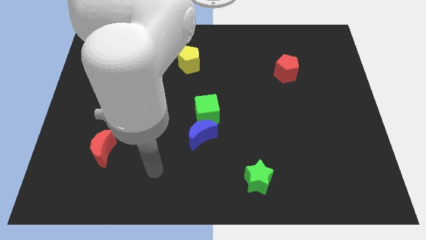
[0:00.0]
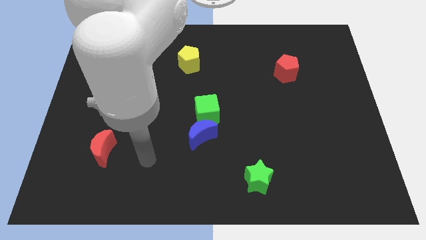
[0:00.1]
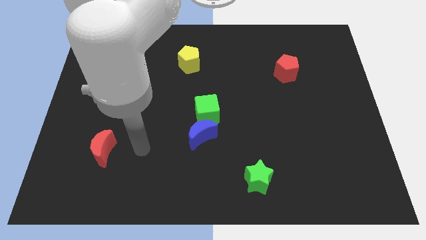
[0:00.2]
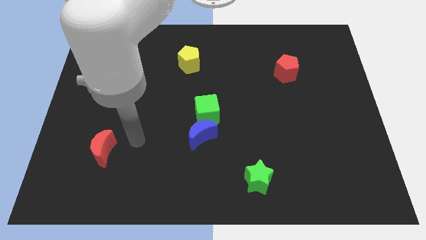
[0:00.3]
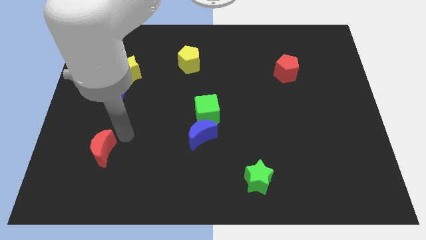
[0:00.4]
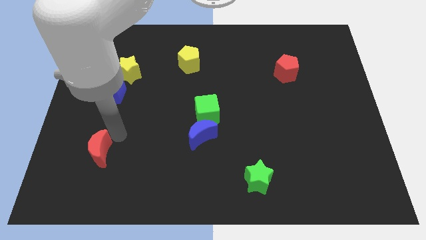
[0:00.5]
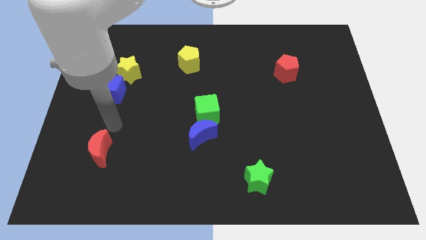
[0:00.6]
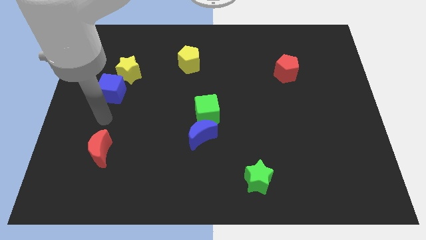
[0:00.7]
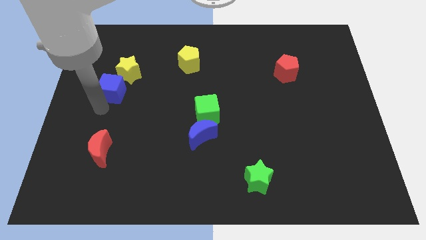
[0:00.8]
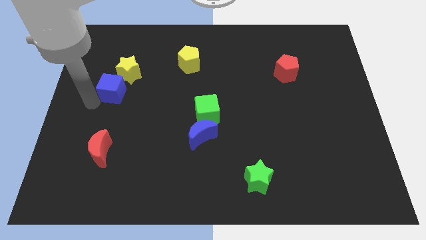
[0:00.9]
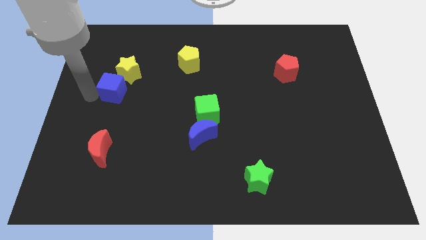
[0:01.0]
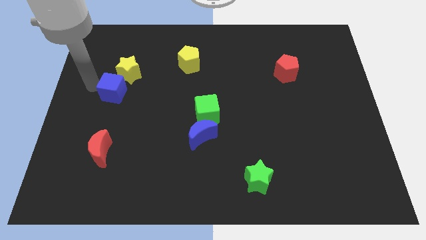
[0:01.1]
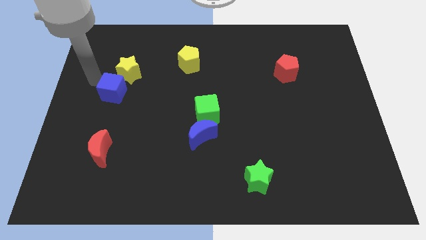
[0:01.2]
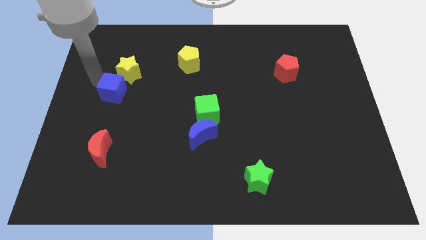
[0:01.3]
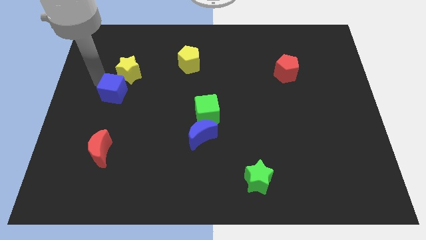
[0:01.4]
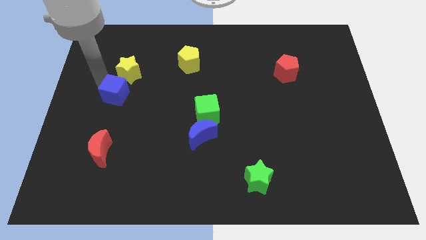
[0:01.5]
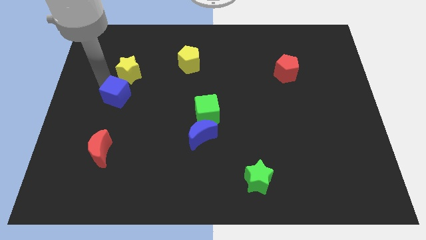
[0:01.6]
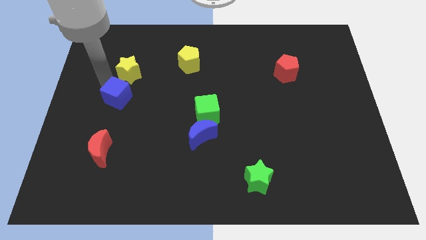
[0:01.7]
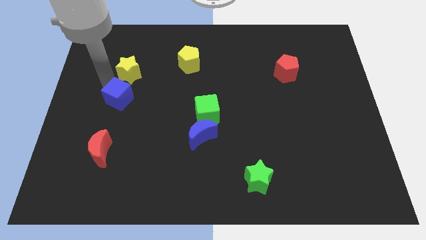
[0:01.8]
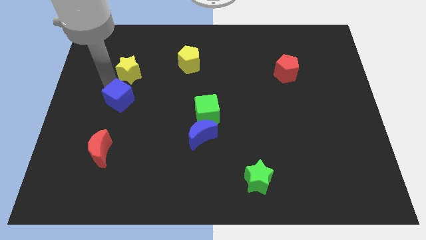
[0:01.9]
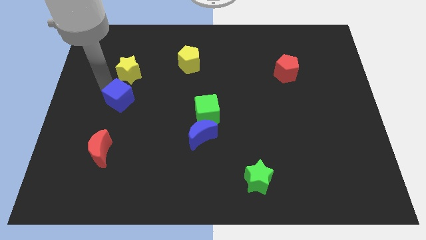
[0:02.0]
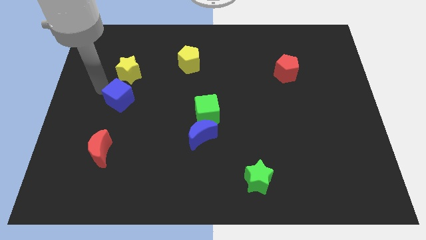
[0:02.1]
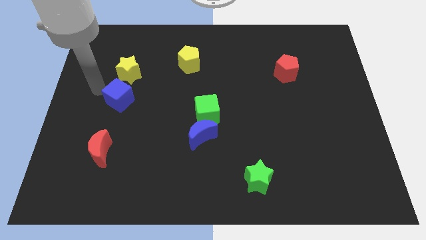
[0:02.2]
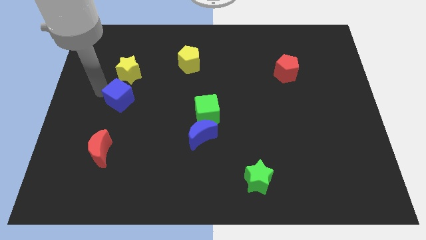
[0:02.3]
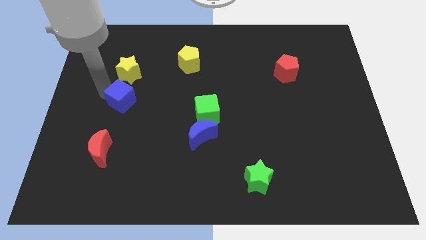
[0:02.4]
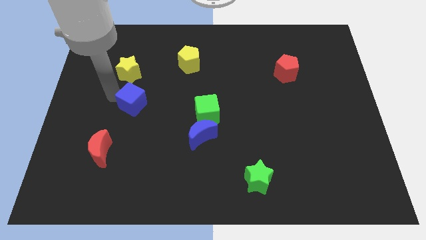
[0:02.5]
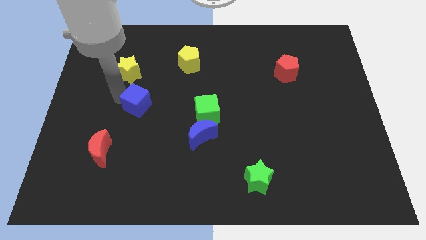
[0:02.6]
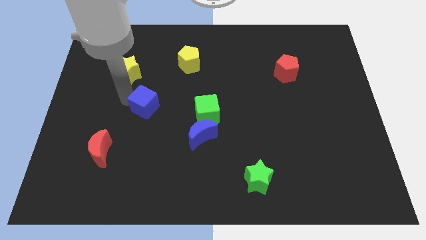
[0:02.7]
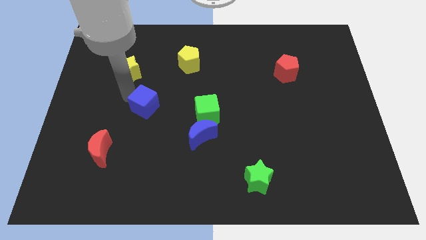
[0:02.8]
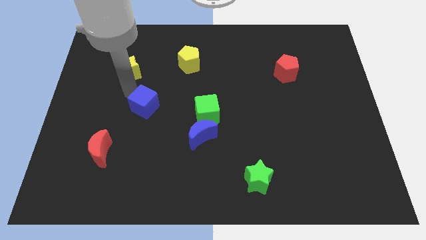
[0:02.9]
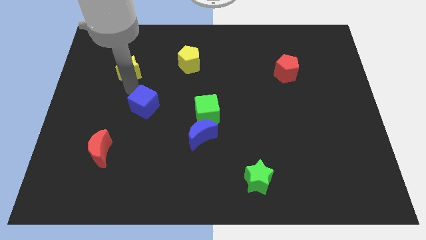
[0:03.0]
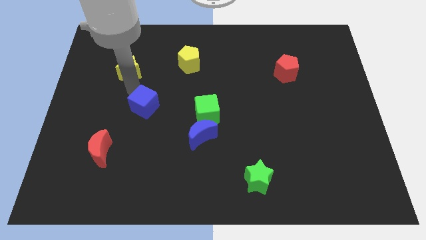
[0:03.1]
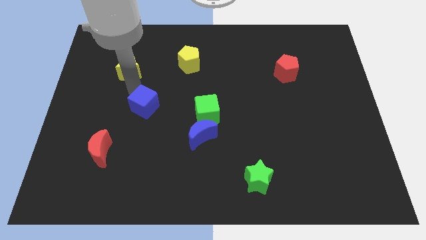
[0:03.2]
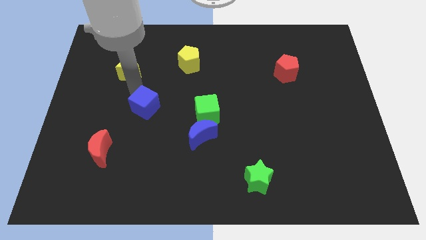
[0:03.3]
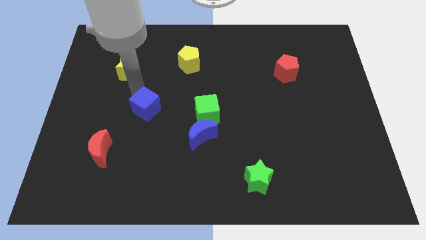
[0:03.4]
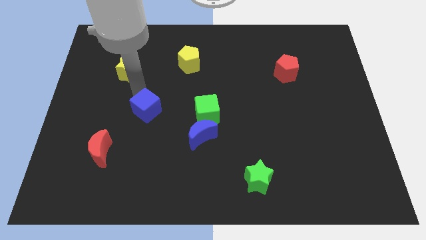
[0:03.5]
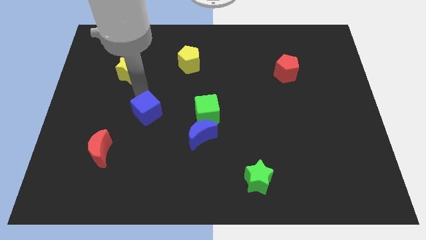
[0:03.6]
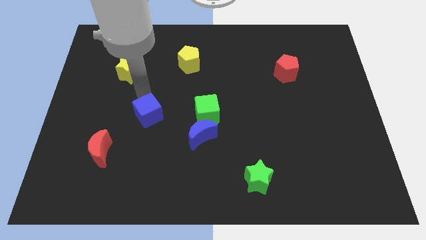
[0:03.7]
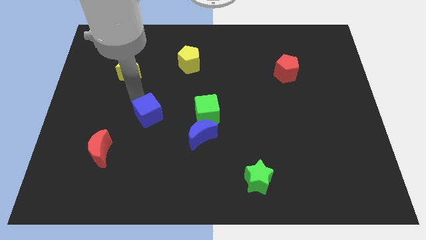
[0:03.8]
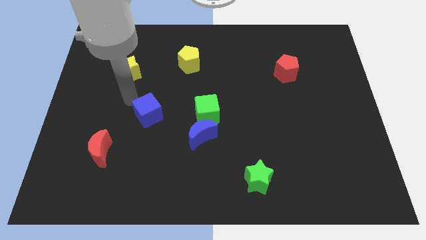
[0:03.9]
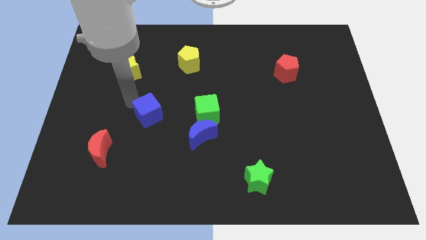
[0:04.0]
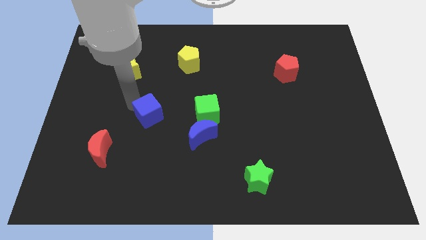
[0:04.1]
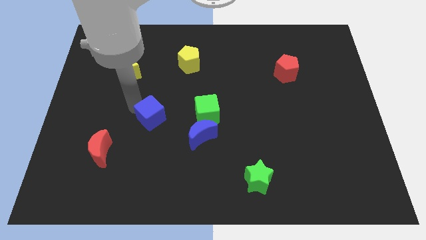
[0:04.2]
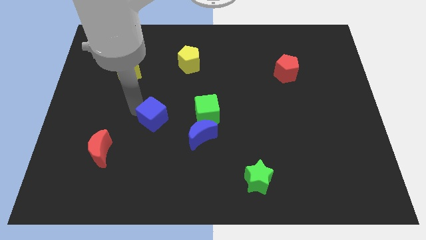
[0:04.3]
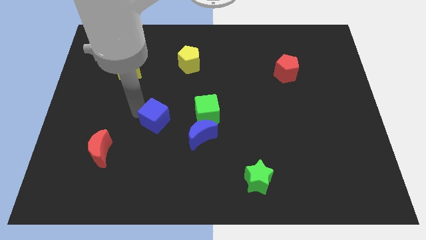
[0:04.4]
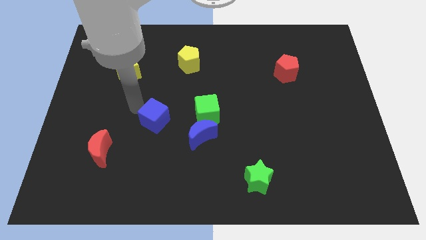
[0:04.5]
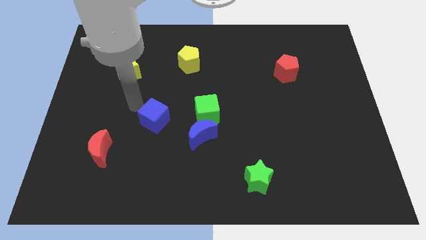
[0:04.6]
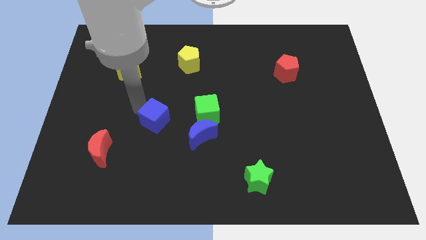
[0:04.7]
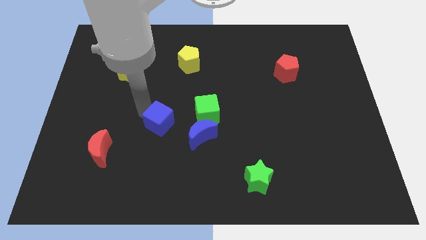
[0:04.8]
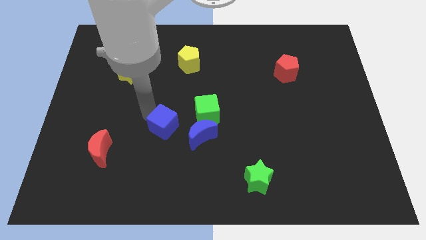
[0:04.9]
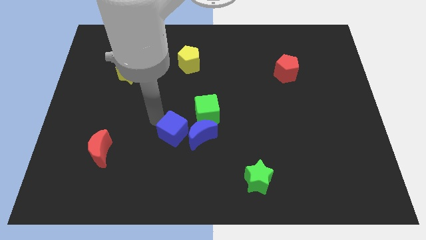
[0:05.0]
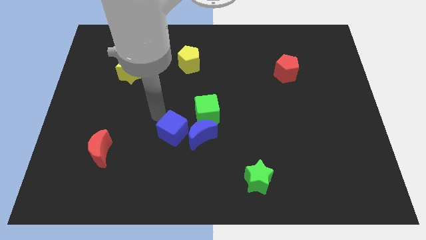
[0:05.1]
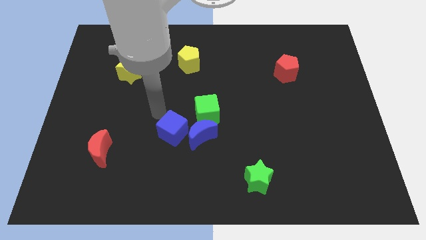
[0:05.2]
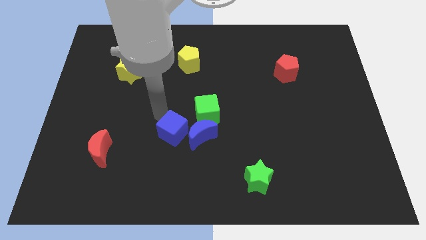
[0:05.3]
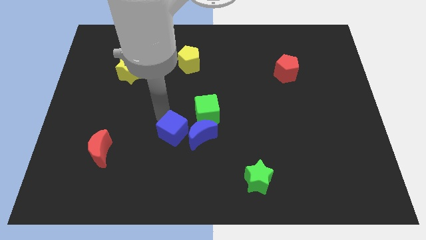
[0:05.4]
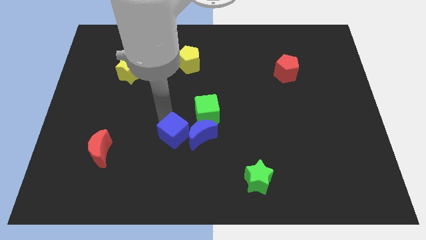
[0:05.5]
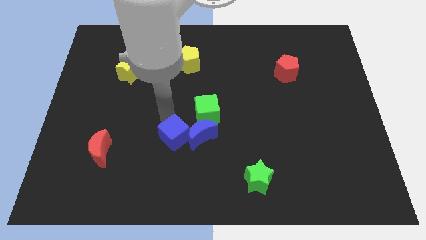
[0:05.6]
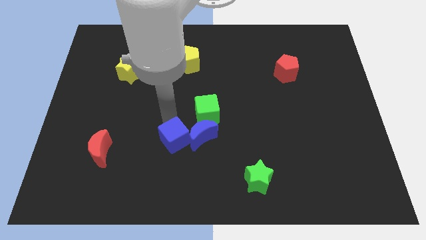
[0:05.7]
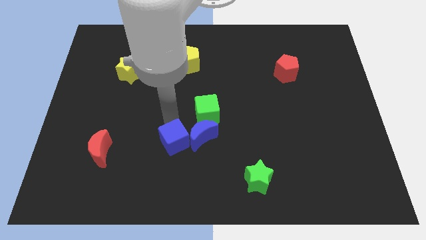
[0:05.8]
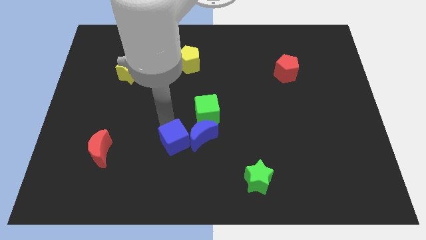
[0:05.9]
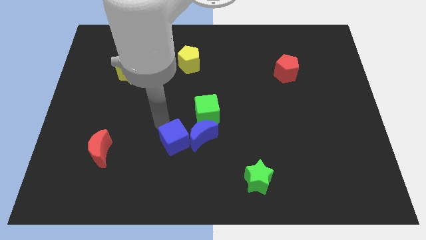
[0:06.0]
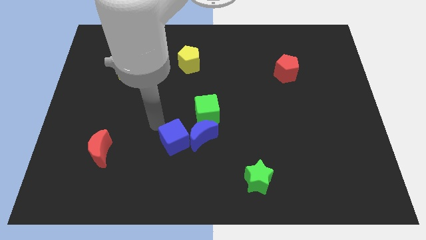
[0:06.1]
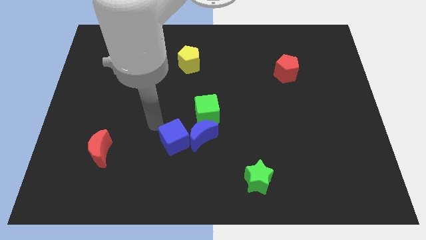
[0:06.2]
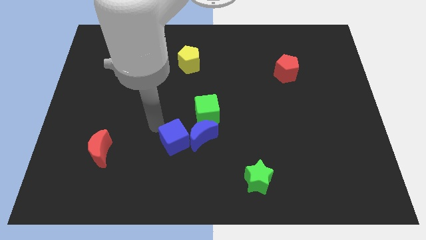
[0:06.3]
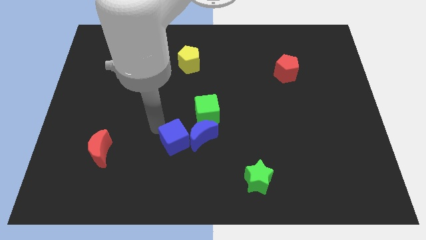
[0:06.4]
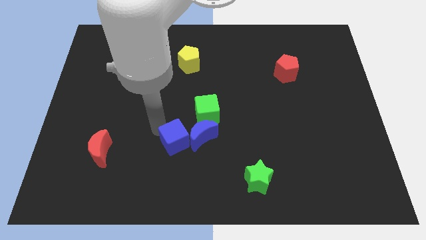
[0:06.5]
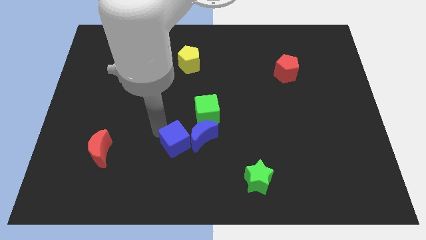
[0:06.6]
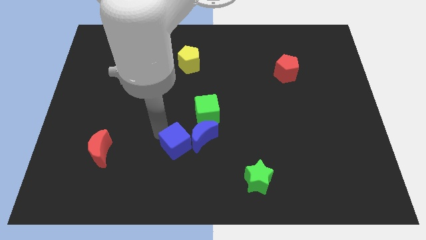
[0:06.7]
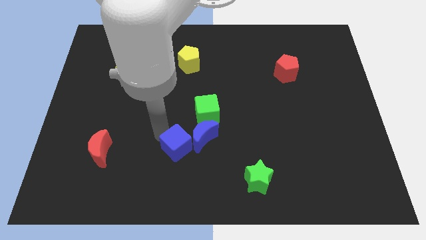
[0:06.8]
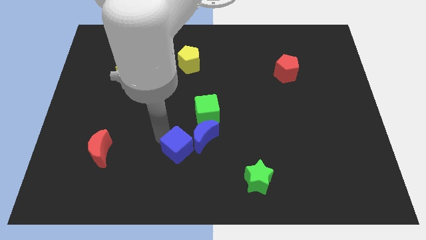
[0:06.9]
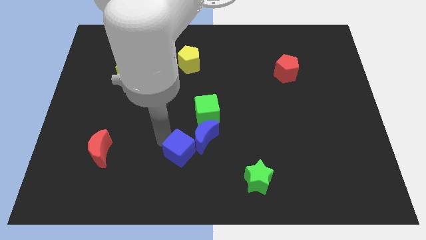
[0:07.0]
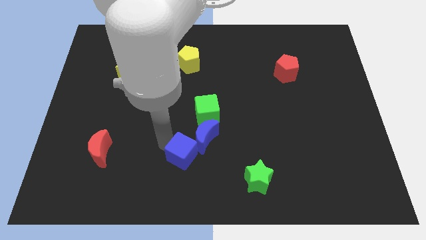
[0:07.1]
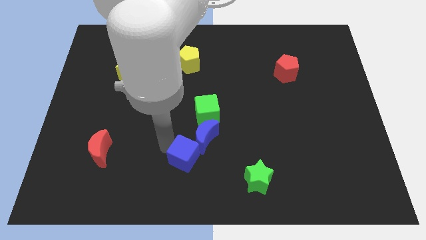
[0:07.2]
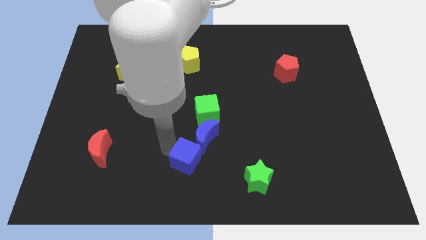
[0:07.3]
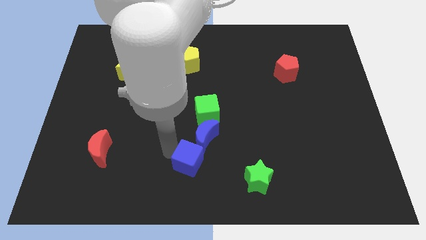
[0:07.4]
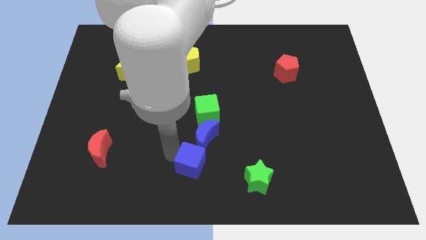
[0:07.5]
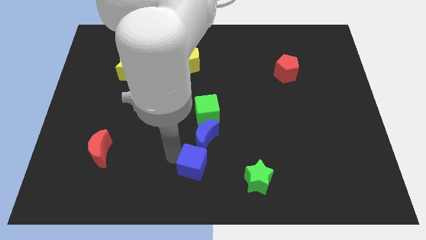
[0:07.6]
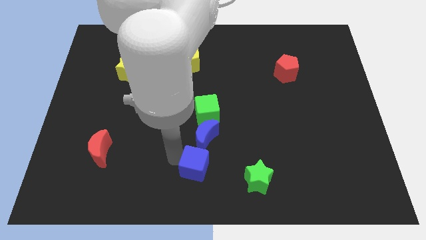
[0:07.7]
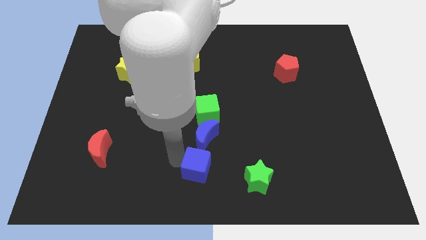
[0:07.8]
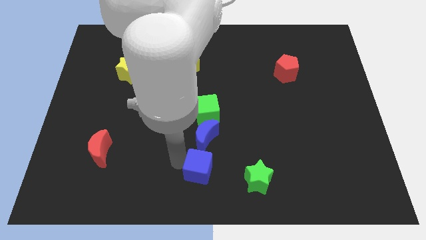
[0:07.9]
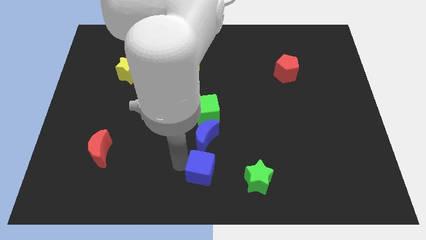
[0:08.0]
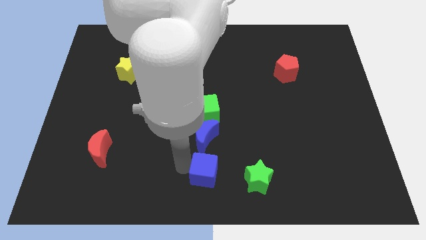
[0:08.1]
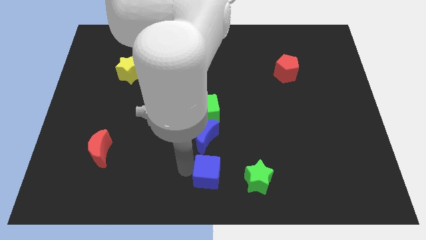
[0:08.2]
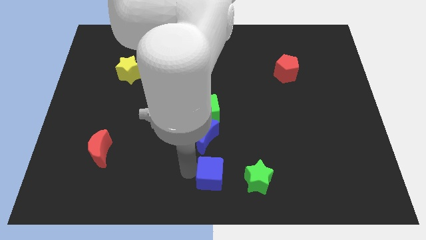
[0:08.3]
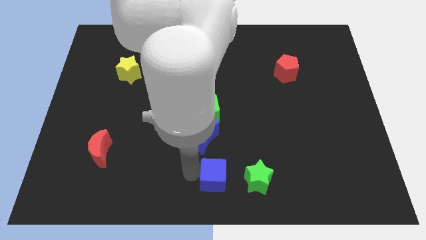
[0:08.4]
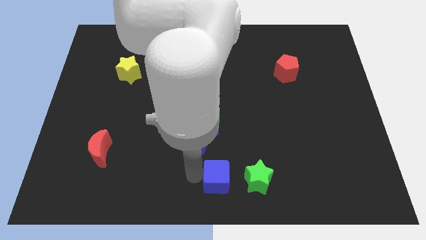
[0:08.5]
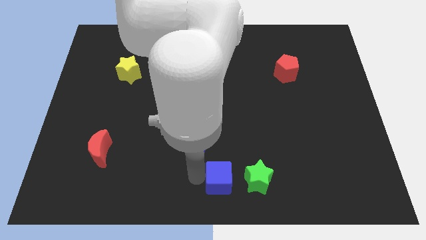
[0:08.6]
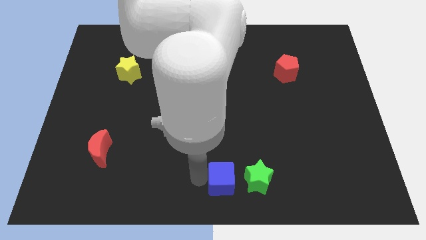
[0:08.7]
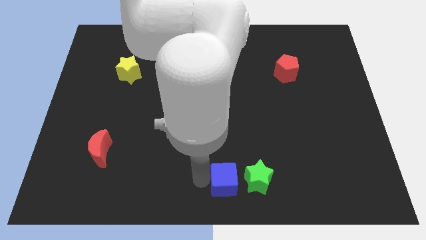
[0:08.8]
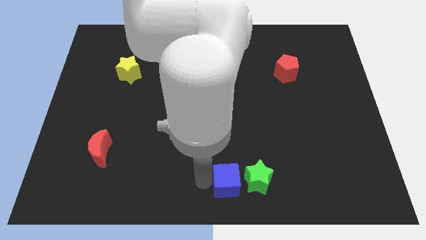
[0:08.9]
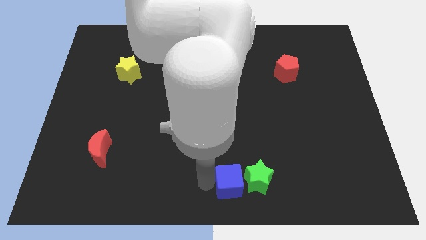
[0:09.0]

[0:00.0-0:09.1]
move the blue cube to the green star
